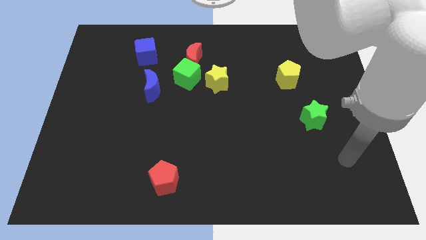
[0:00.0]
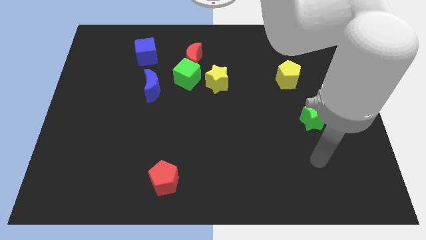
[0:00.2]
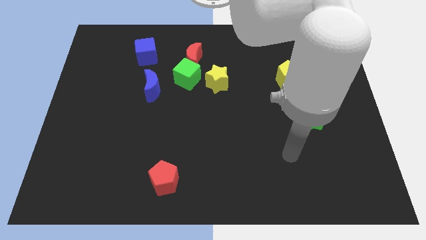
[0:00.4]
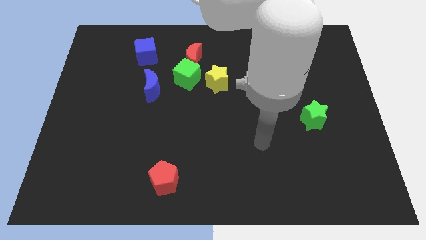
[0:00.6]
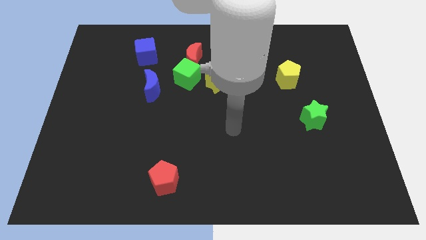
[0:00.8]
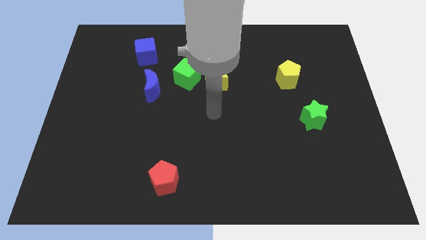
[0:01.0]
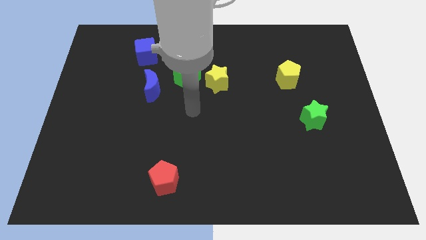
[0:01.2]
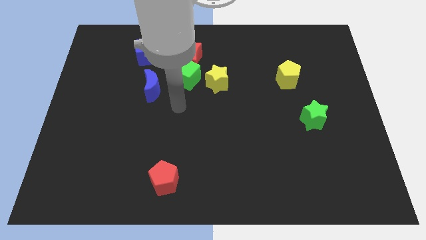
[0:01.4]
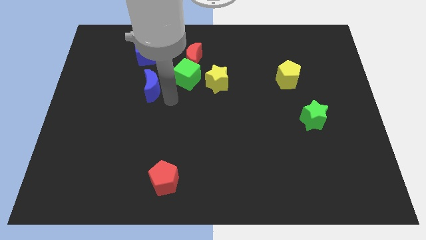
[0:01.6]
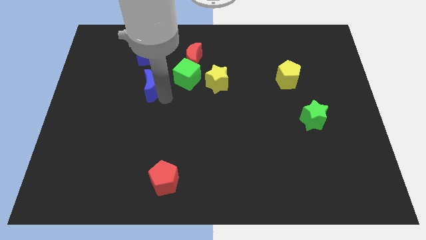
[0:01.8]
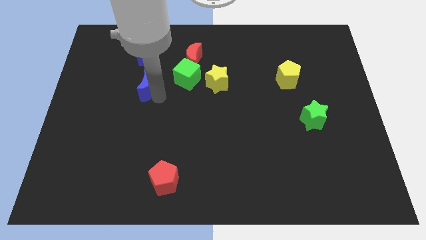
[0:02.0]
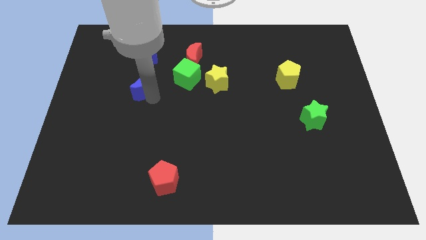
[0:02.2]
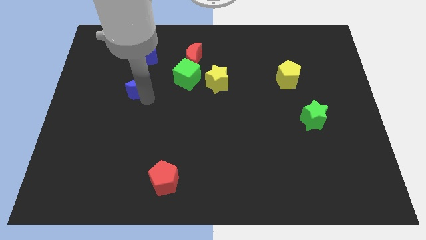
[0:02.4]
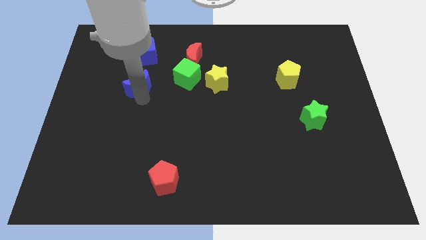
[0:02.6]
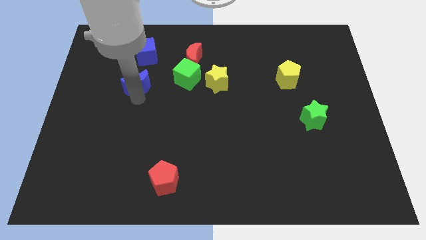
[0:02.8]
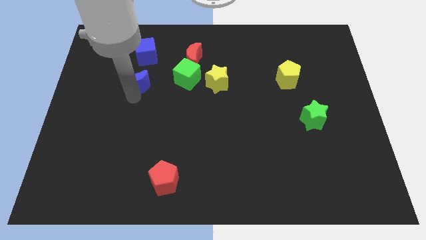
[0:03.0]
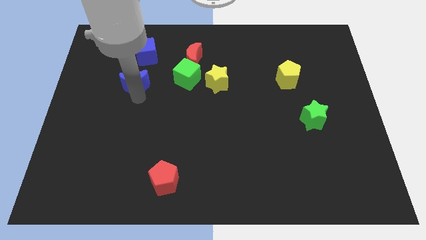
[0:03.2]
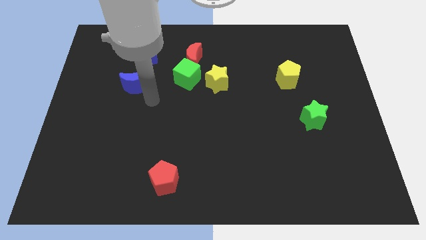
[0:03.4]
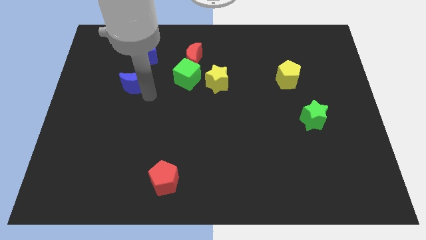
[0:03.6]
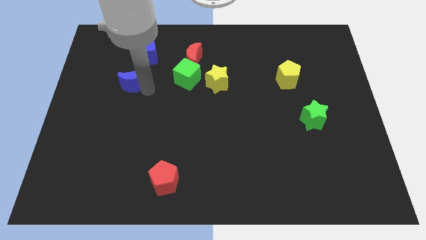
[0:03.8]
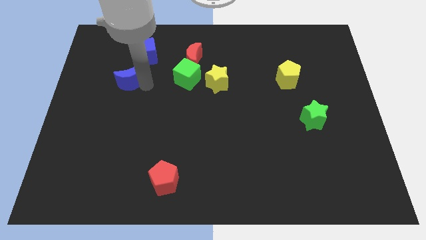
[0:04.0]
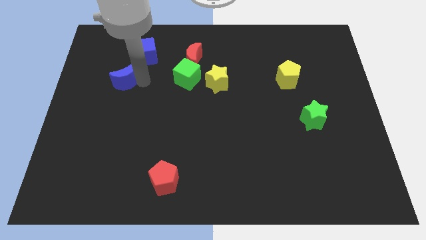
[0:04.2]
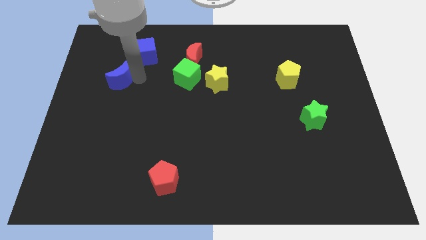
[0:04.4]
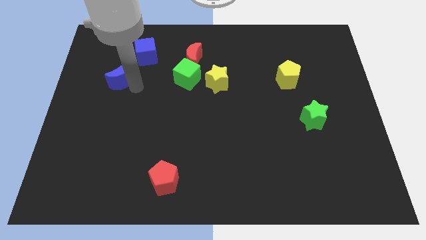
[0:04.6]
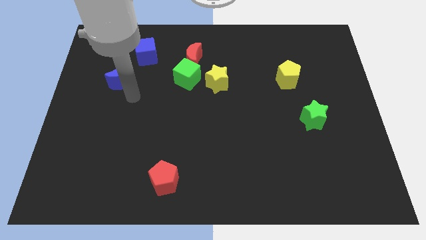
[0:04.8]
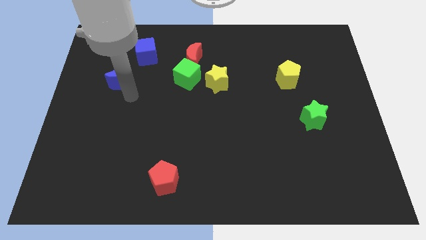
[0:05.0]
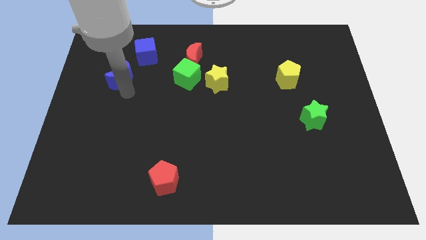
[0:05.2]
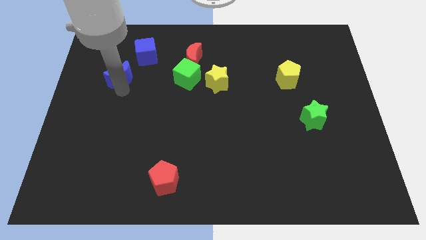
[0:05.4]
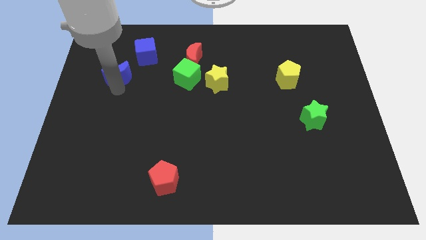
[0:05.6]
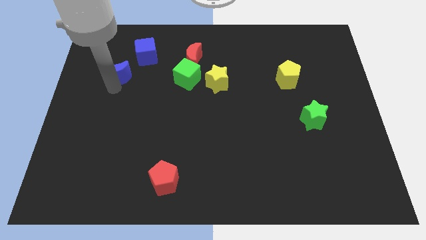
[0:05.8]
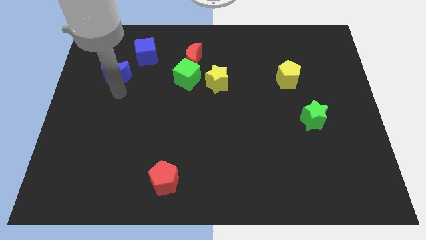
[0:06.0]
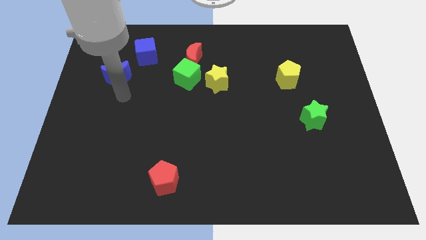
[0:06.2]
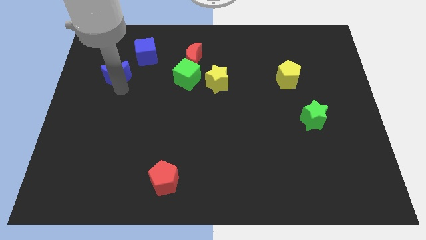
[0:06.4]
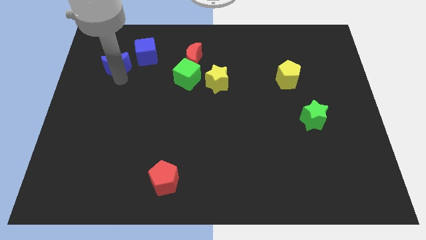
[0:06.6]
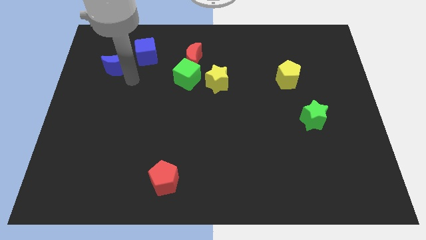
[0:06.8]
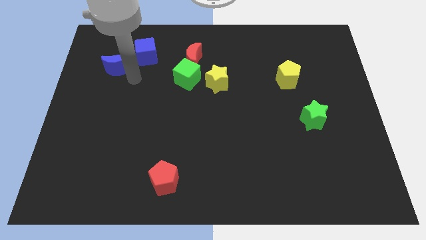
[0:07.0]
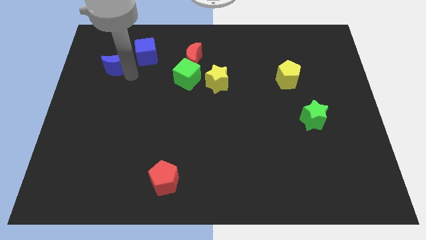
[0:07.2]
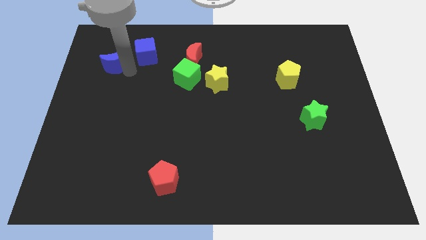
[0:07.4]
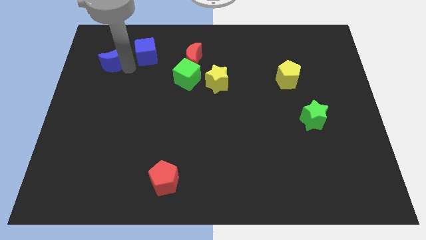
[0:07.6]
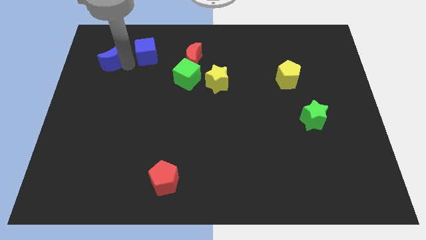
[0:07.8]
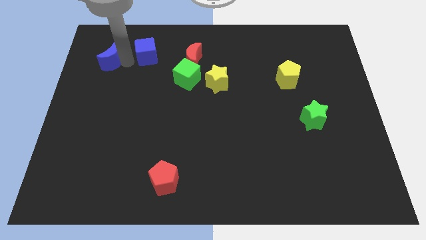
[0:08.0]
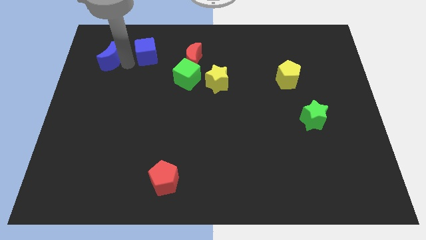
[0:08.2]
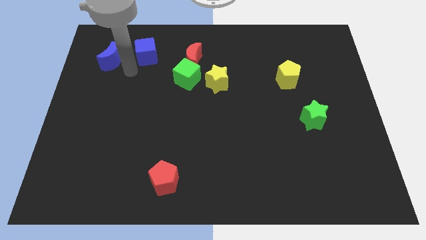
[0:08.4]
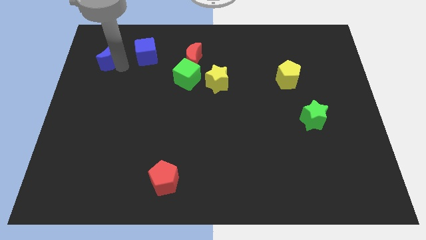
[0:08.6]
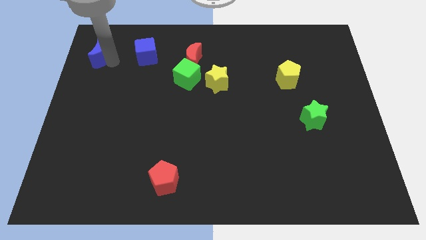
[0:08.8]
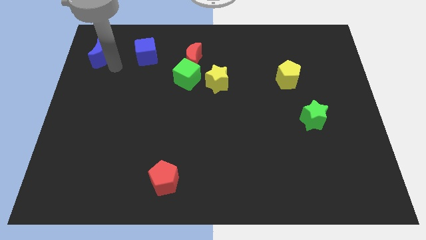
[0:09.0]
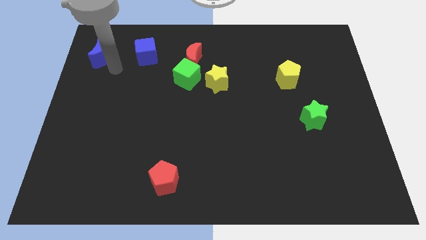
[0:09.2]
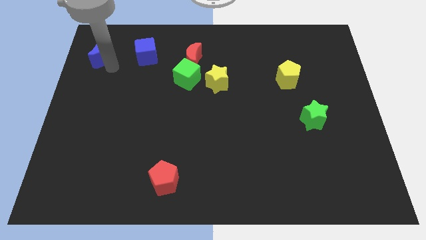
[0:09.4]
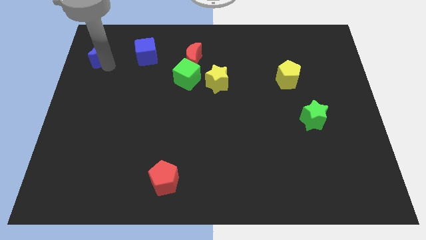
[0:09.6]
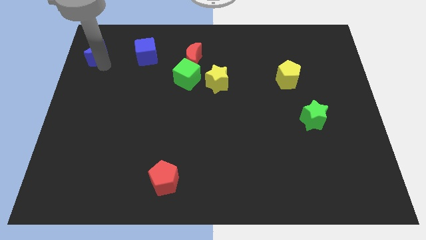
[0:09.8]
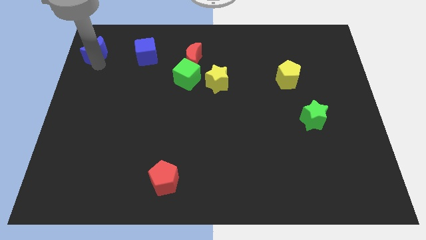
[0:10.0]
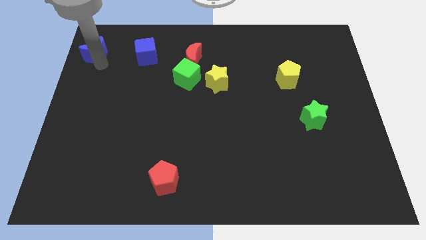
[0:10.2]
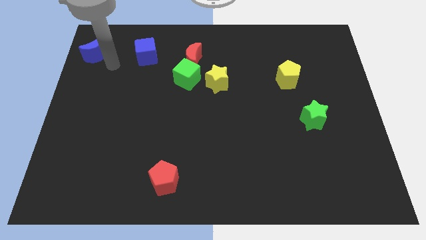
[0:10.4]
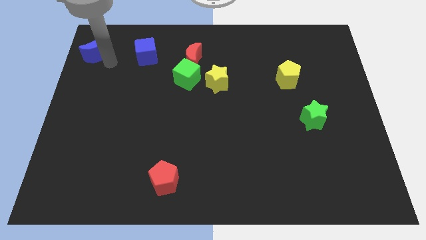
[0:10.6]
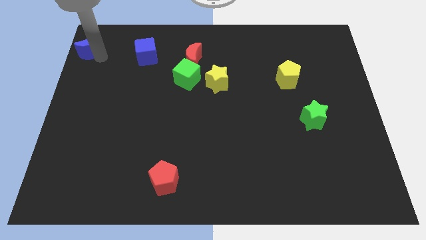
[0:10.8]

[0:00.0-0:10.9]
move the blue moon to the top left of the board

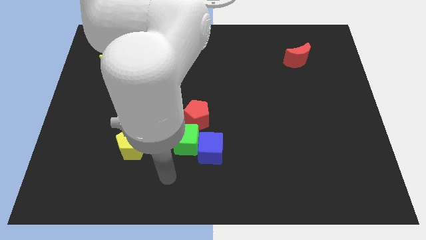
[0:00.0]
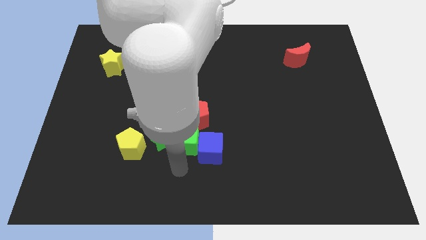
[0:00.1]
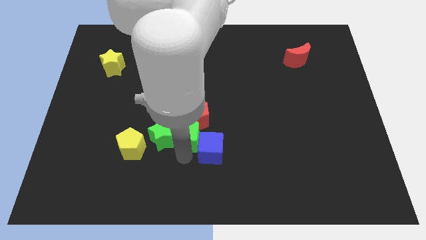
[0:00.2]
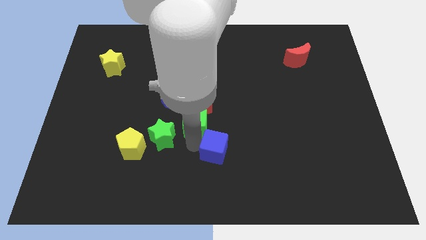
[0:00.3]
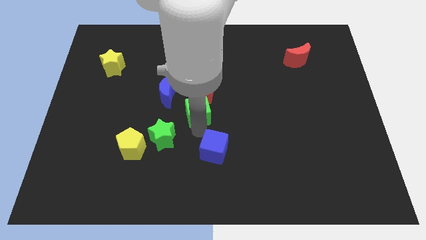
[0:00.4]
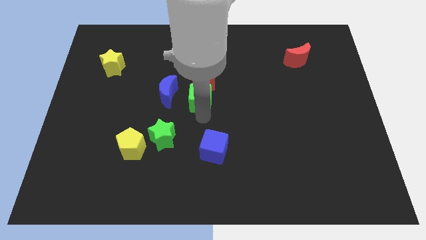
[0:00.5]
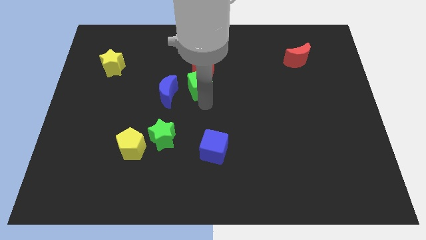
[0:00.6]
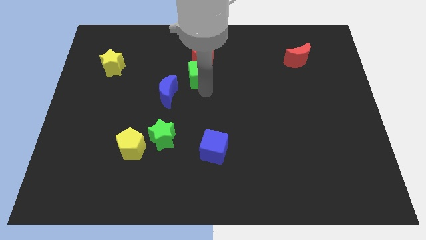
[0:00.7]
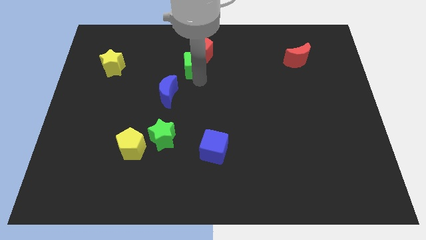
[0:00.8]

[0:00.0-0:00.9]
put the red pentagon to the towards your base
